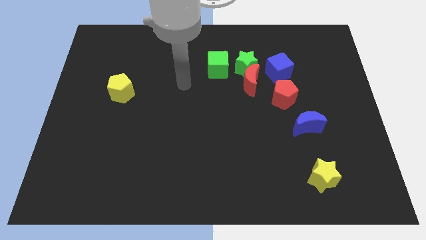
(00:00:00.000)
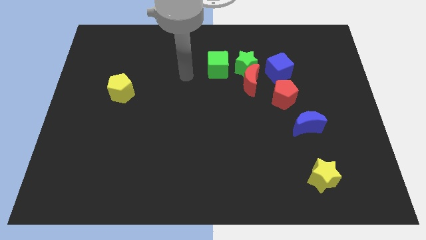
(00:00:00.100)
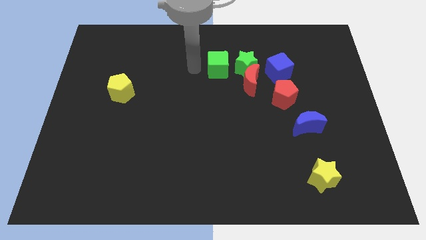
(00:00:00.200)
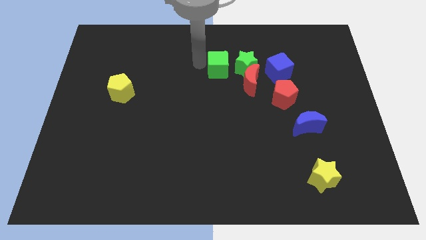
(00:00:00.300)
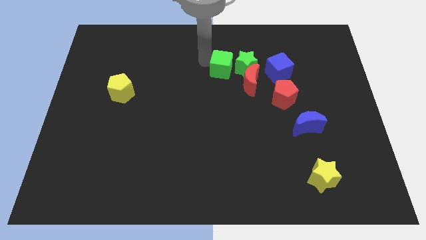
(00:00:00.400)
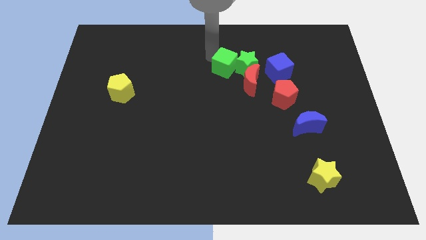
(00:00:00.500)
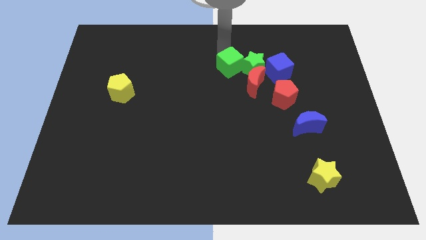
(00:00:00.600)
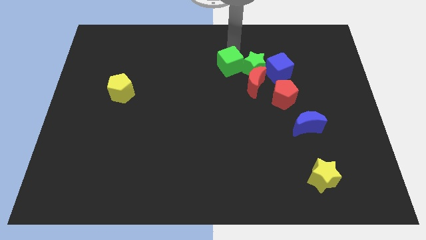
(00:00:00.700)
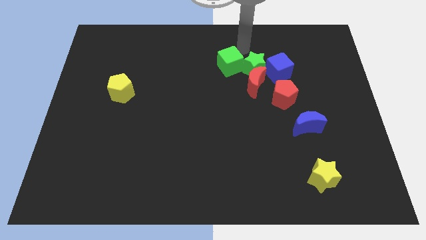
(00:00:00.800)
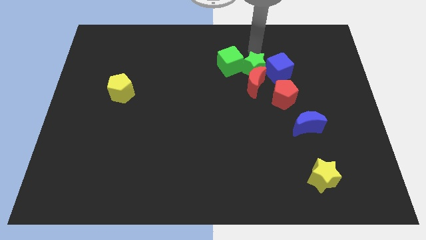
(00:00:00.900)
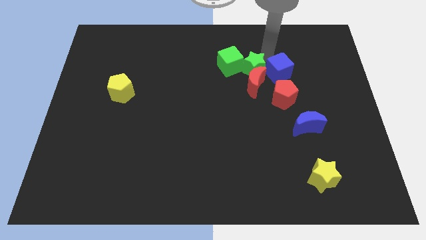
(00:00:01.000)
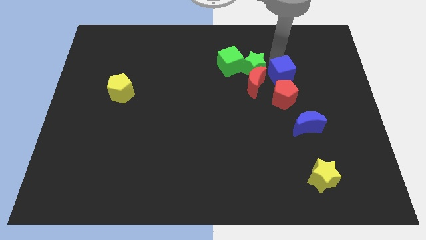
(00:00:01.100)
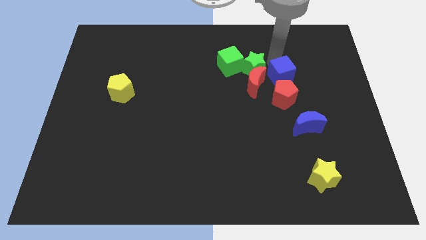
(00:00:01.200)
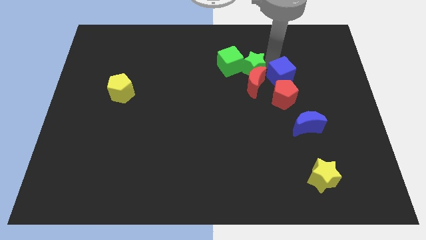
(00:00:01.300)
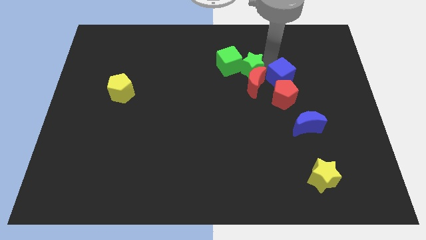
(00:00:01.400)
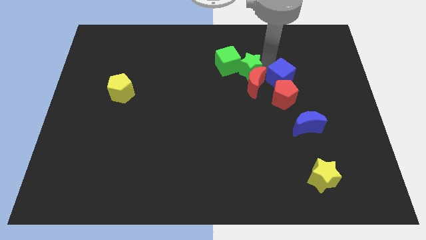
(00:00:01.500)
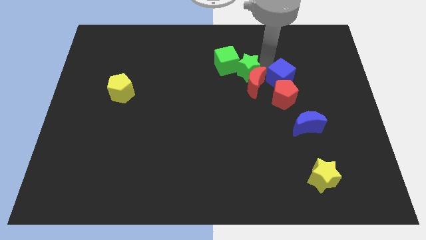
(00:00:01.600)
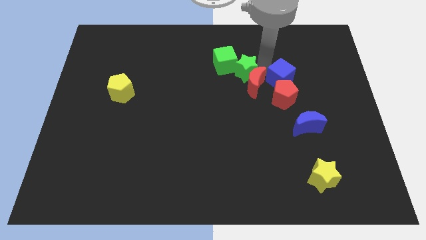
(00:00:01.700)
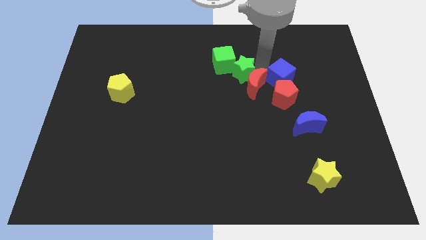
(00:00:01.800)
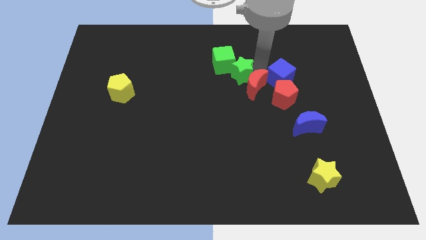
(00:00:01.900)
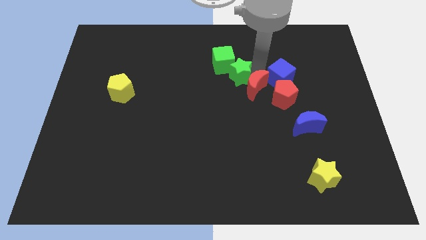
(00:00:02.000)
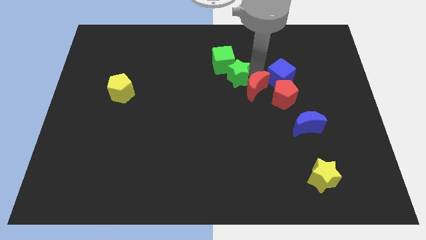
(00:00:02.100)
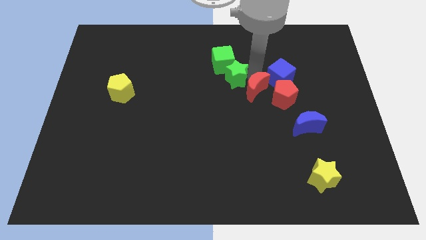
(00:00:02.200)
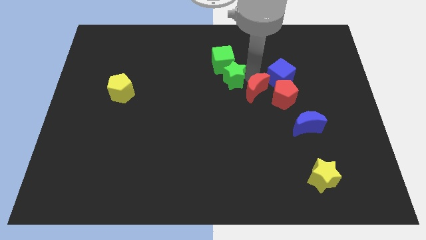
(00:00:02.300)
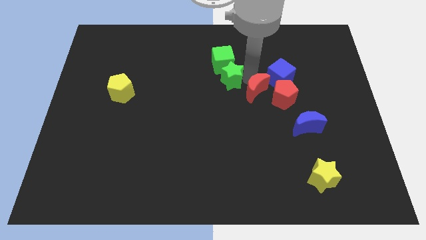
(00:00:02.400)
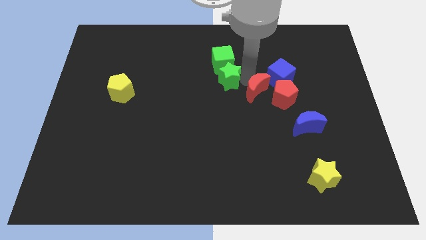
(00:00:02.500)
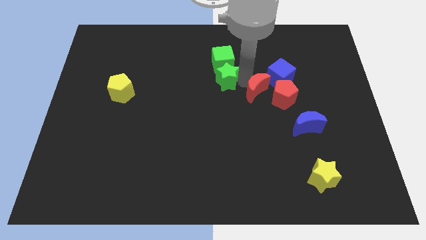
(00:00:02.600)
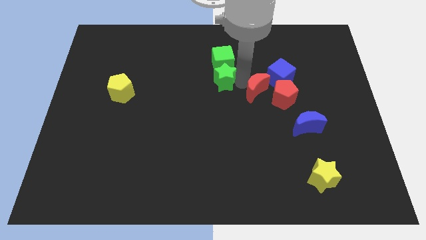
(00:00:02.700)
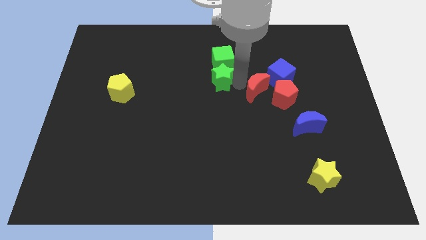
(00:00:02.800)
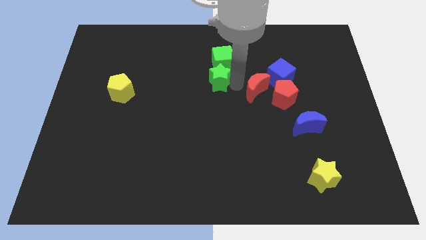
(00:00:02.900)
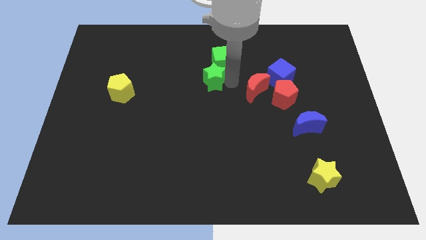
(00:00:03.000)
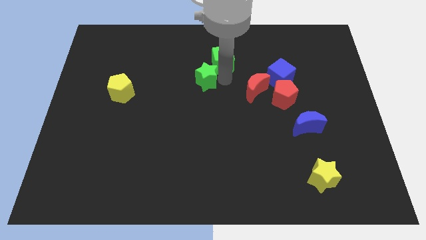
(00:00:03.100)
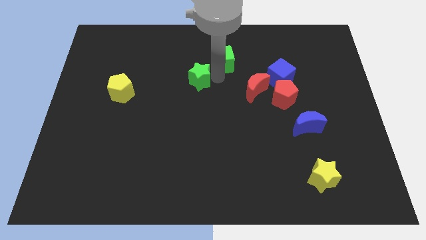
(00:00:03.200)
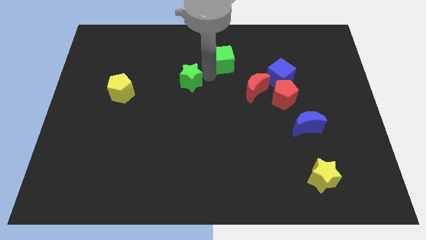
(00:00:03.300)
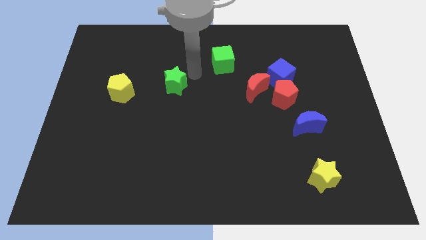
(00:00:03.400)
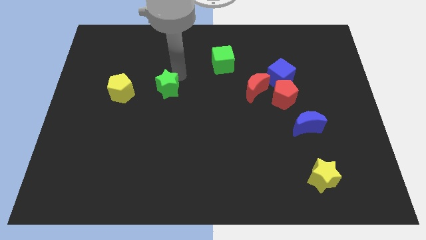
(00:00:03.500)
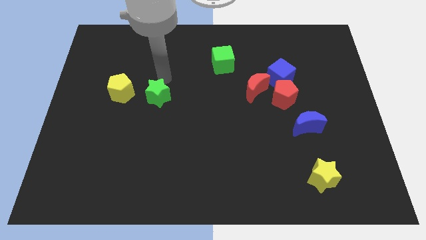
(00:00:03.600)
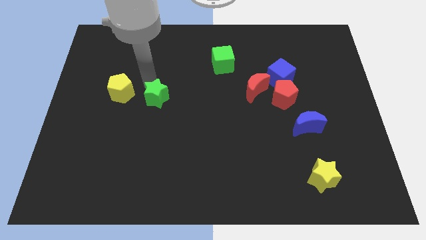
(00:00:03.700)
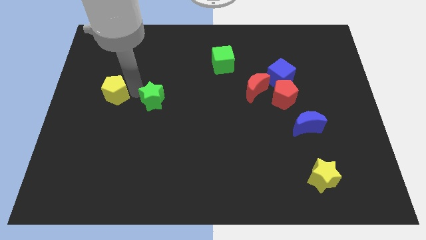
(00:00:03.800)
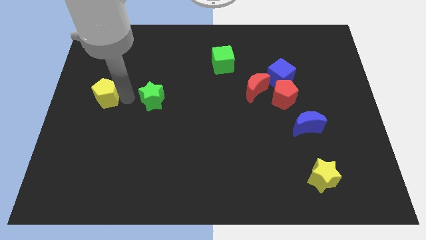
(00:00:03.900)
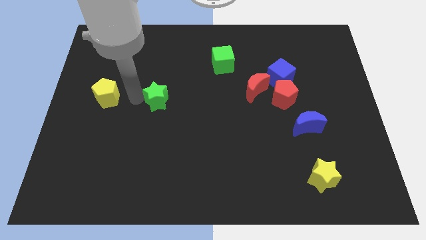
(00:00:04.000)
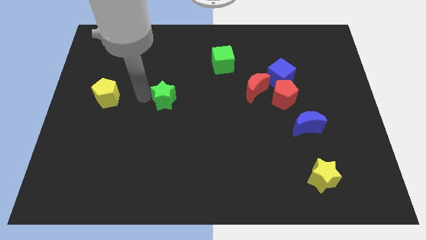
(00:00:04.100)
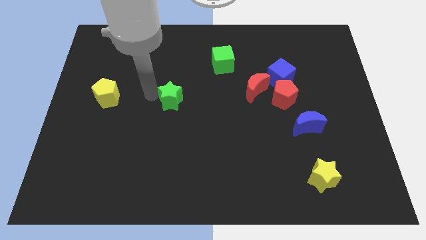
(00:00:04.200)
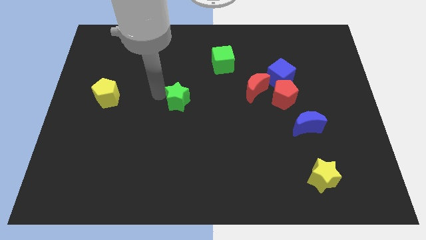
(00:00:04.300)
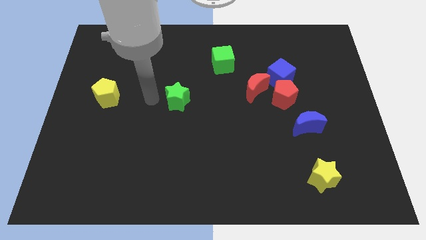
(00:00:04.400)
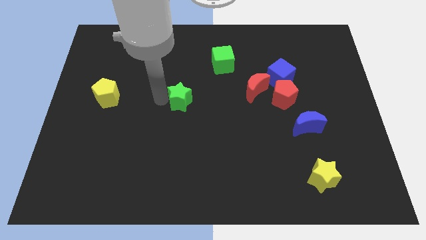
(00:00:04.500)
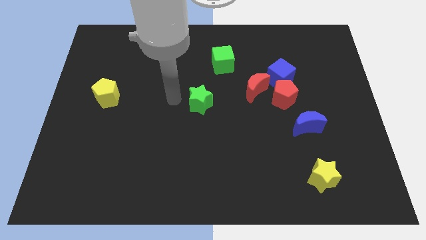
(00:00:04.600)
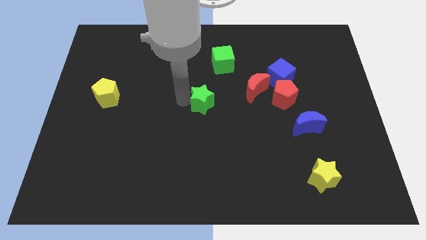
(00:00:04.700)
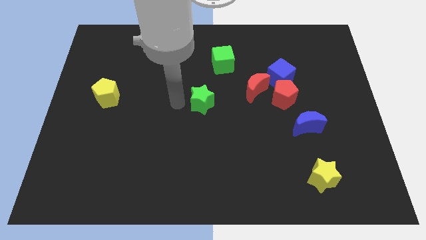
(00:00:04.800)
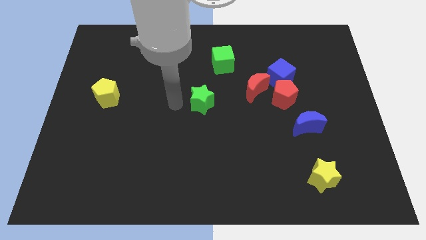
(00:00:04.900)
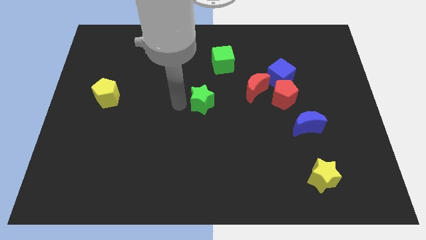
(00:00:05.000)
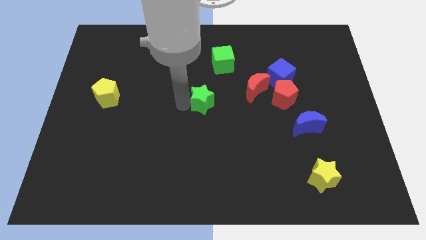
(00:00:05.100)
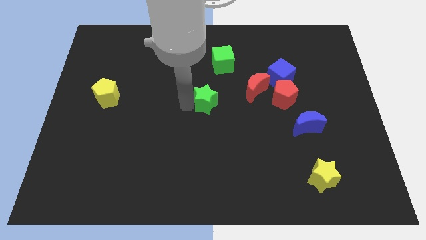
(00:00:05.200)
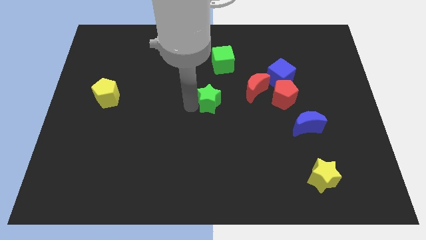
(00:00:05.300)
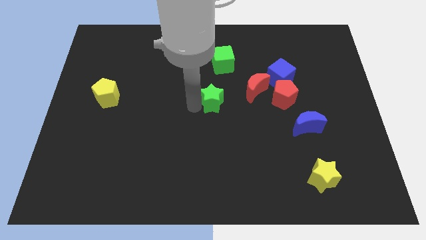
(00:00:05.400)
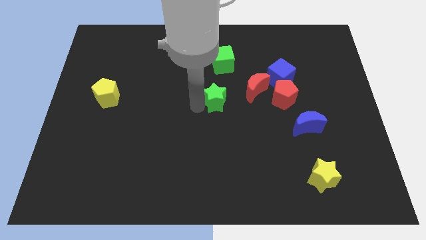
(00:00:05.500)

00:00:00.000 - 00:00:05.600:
put the green star just left of the red pentagon

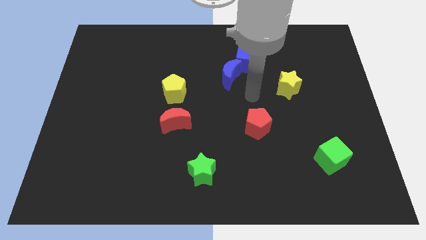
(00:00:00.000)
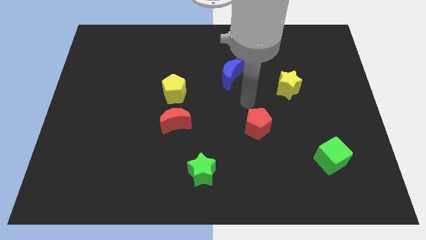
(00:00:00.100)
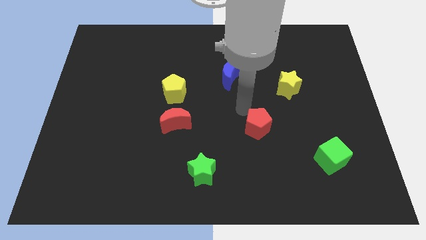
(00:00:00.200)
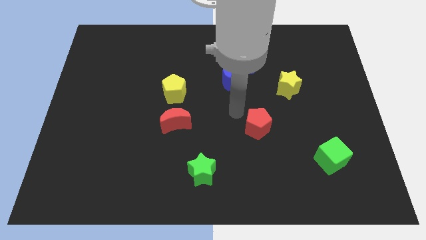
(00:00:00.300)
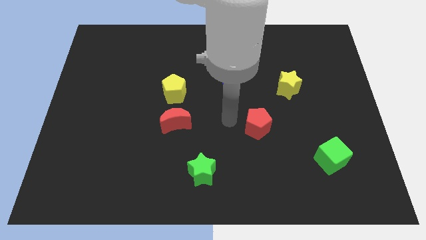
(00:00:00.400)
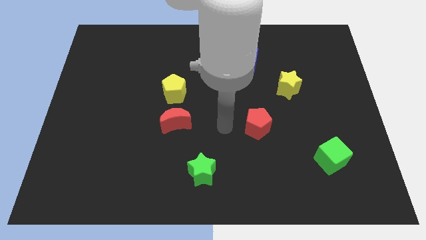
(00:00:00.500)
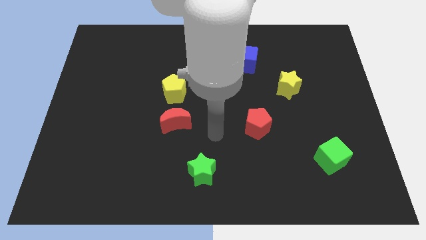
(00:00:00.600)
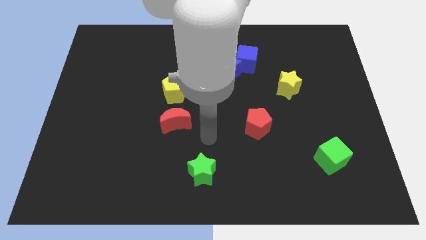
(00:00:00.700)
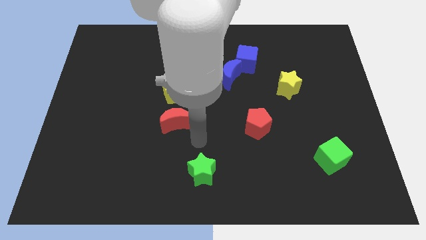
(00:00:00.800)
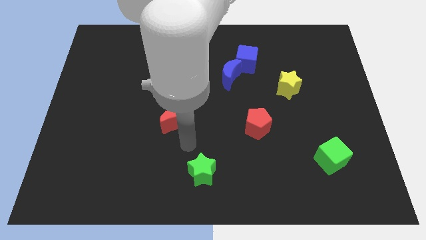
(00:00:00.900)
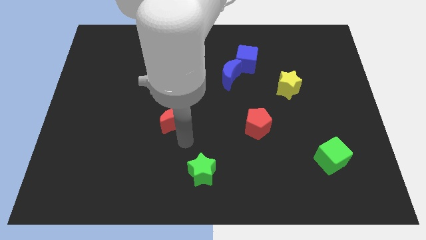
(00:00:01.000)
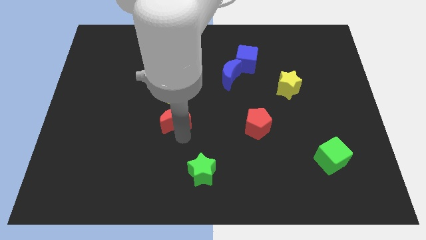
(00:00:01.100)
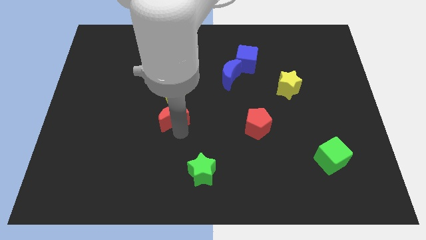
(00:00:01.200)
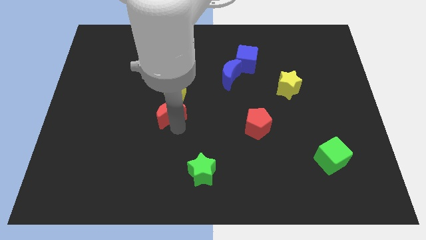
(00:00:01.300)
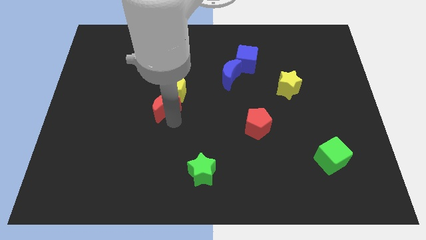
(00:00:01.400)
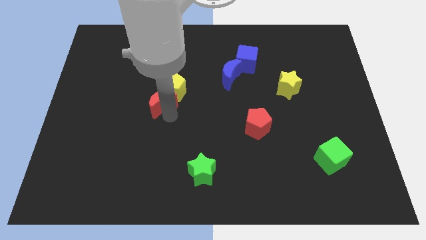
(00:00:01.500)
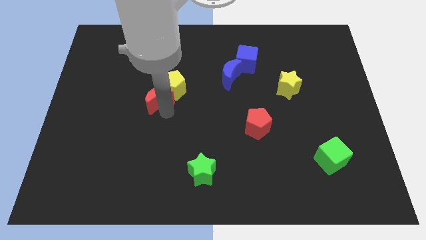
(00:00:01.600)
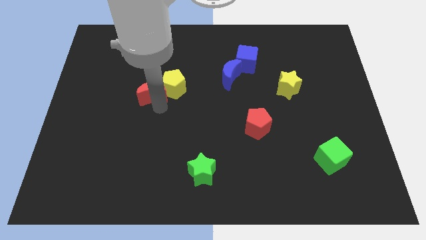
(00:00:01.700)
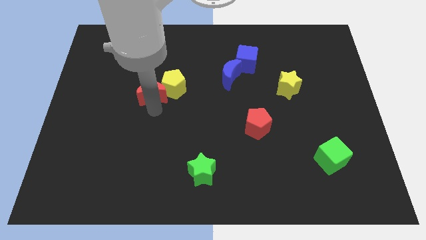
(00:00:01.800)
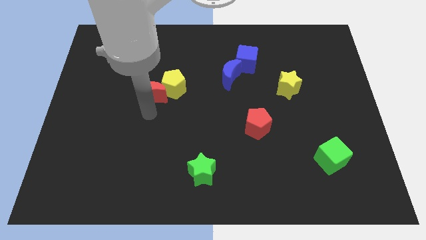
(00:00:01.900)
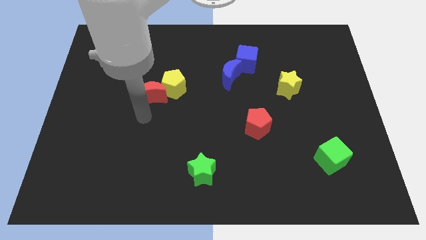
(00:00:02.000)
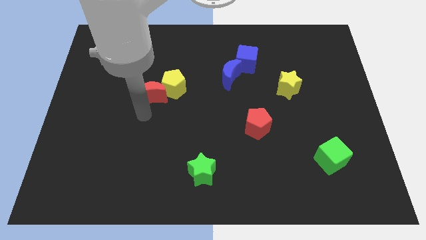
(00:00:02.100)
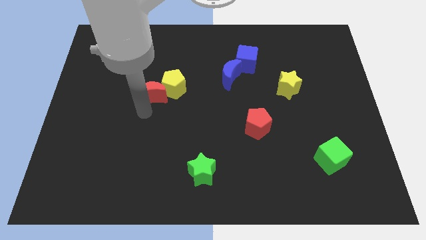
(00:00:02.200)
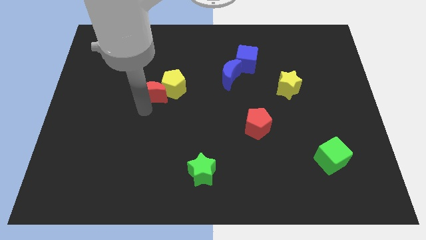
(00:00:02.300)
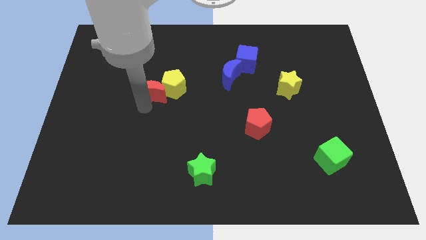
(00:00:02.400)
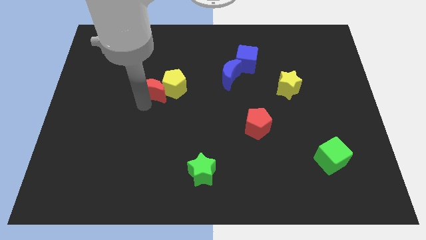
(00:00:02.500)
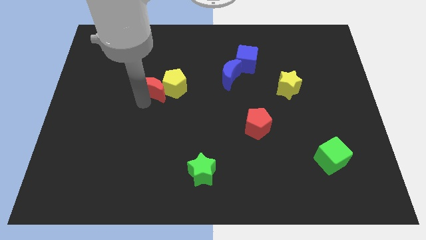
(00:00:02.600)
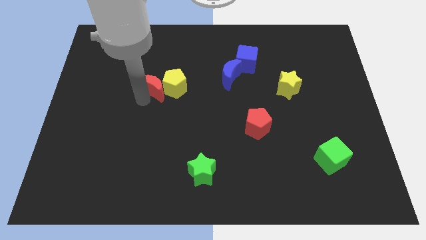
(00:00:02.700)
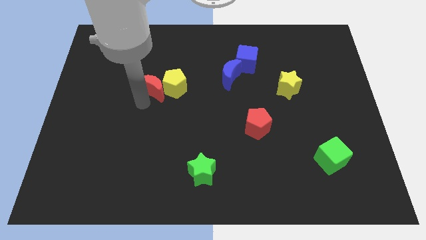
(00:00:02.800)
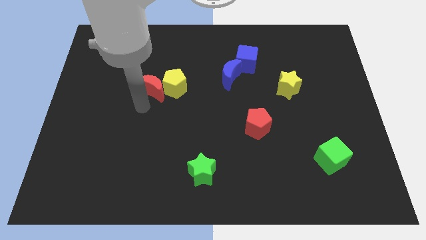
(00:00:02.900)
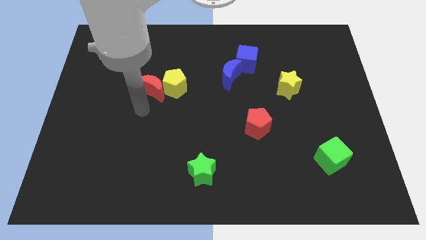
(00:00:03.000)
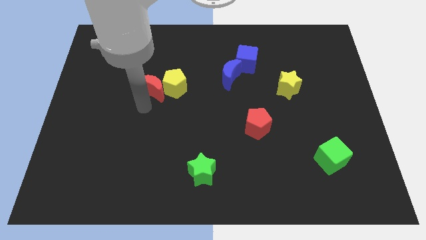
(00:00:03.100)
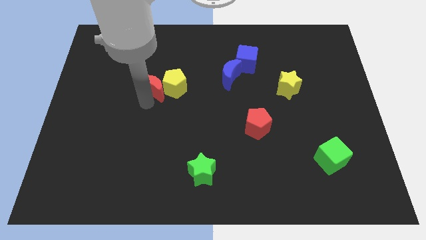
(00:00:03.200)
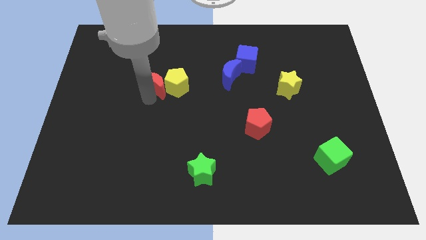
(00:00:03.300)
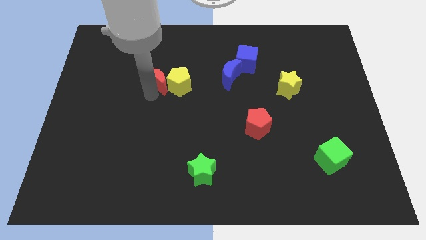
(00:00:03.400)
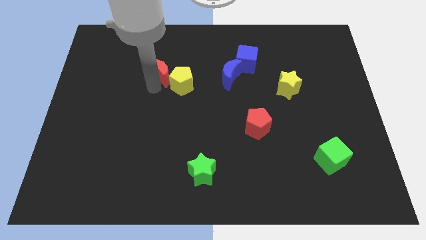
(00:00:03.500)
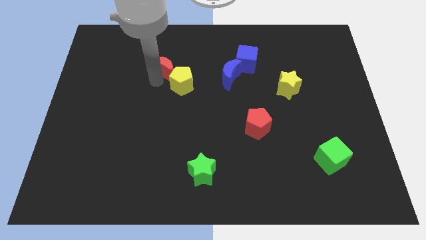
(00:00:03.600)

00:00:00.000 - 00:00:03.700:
move the red moon to the top side of the yellow pentagon
